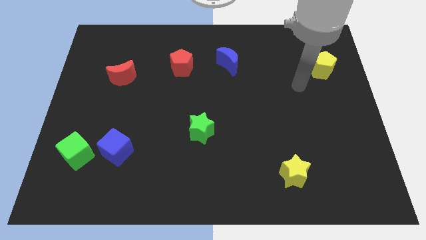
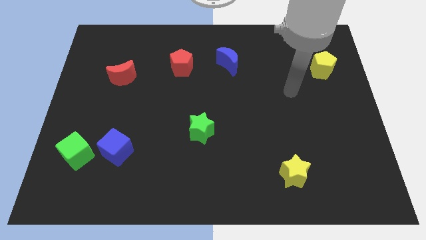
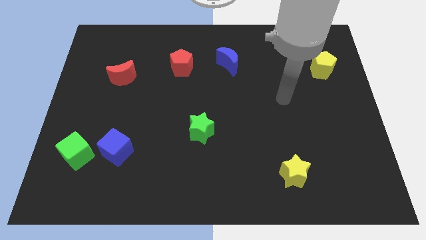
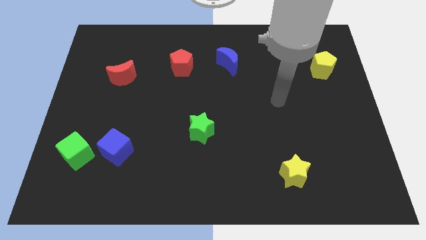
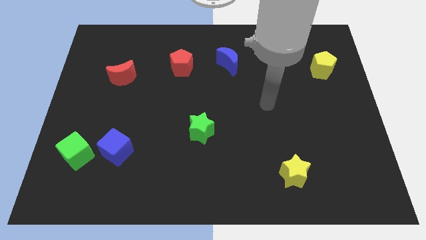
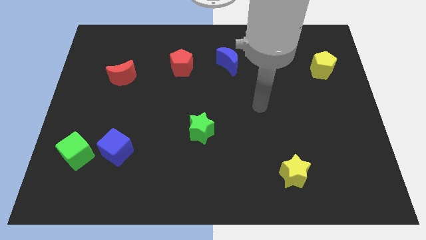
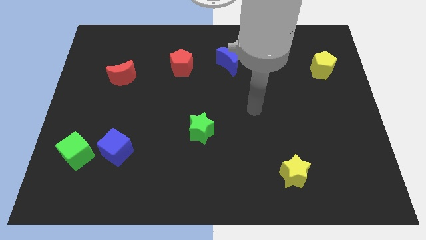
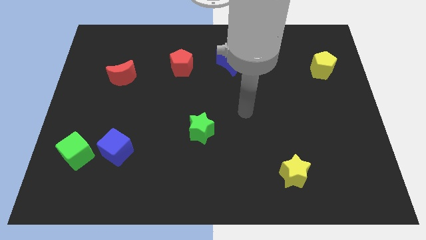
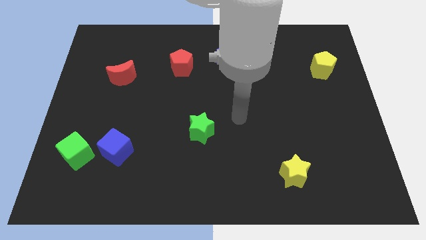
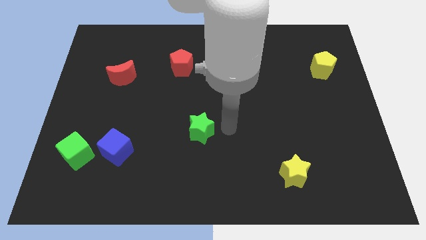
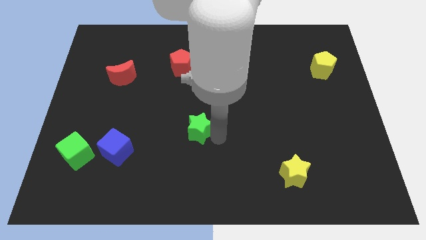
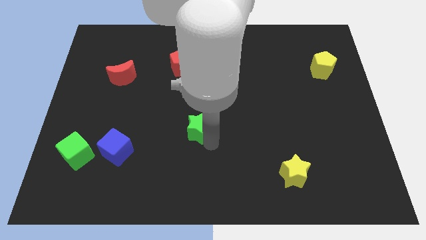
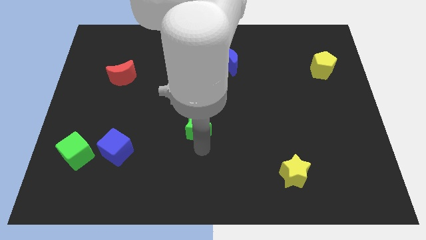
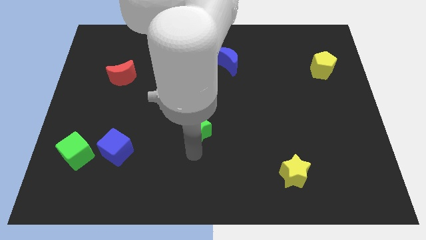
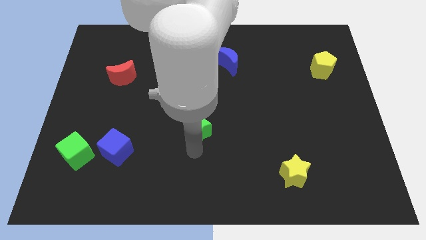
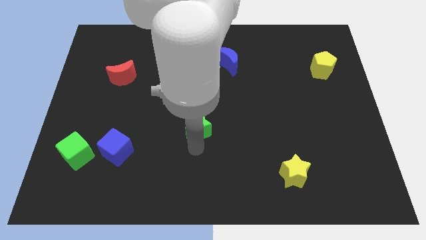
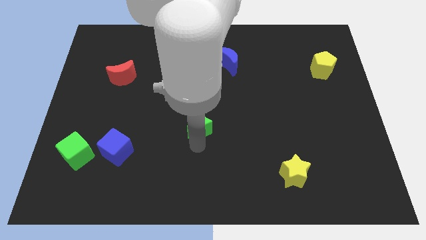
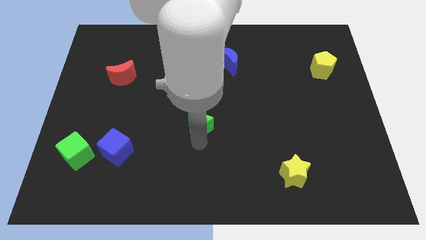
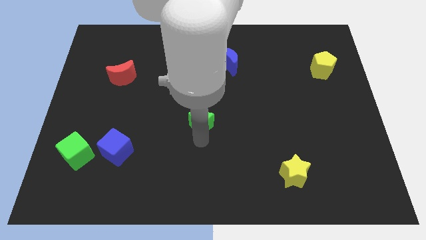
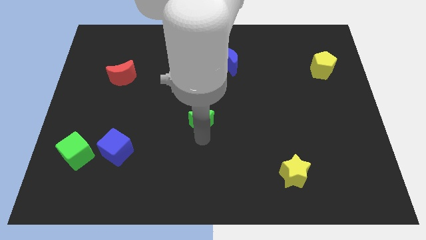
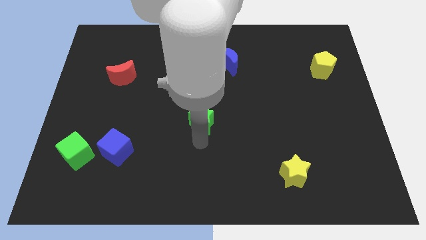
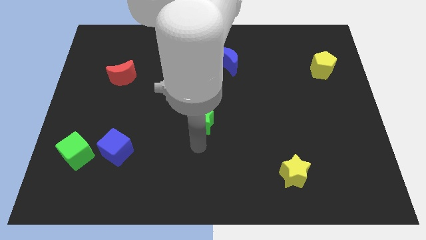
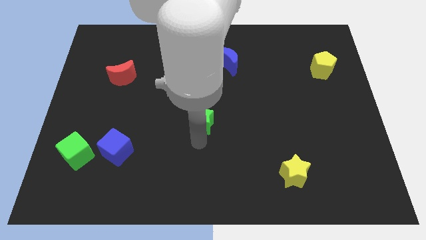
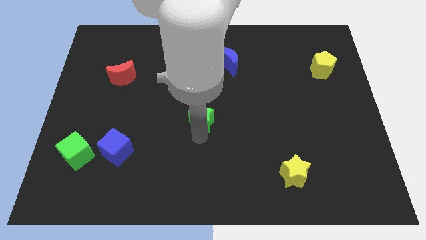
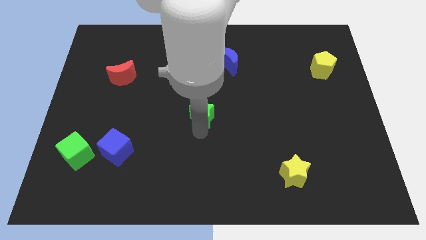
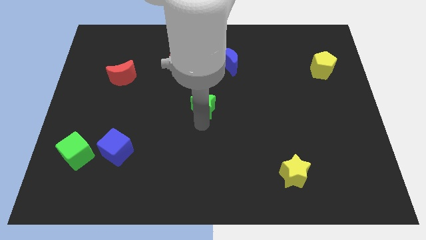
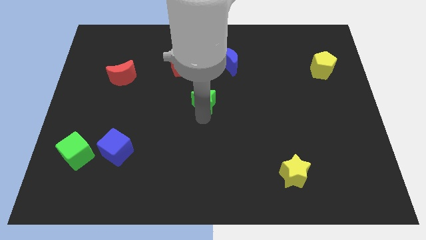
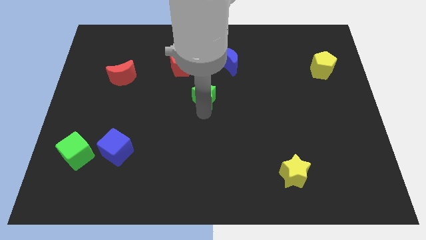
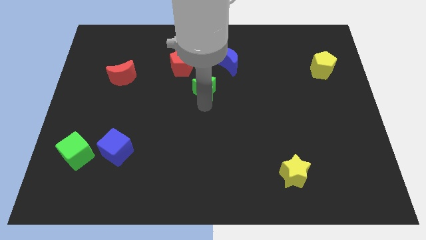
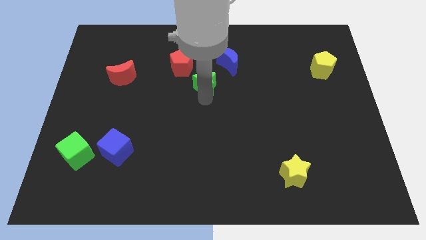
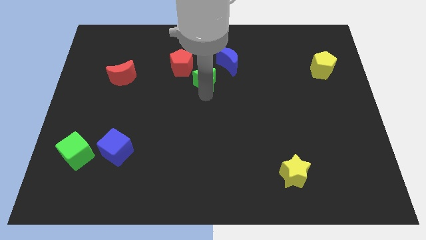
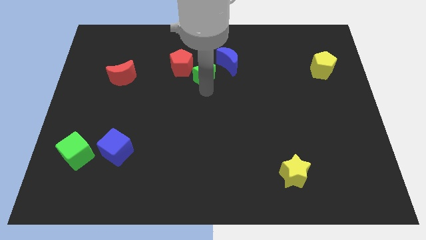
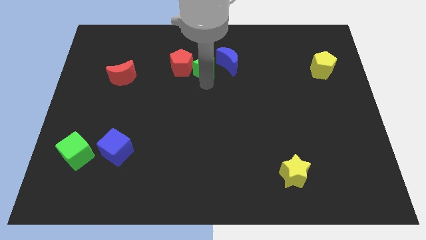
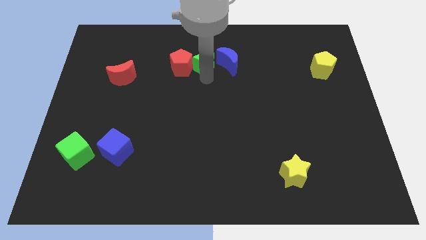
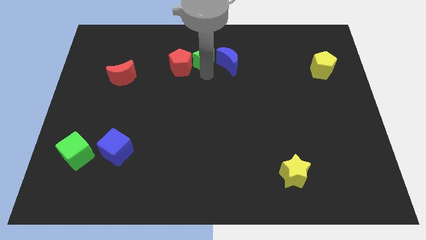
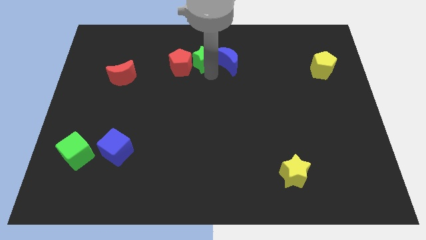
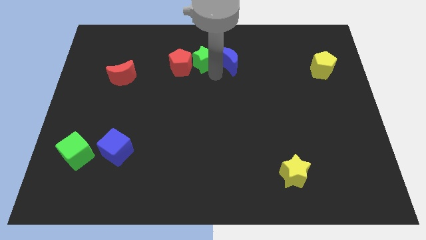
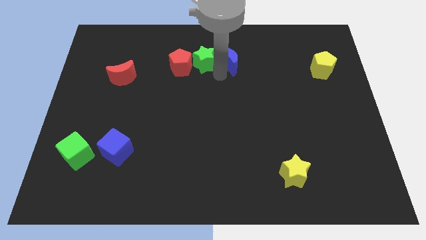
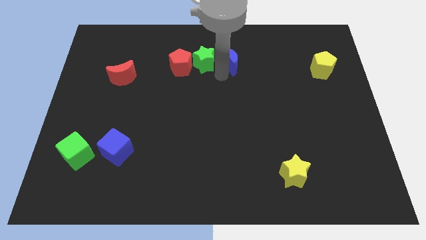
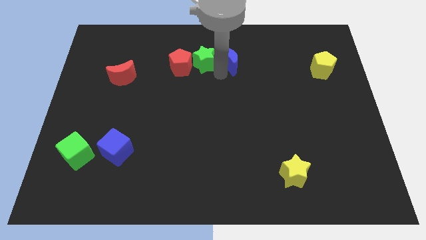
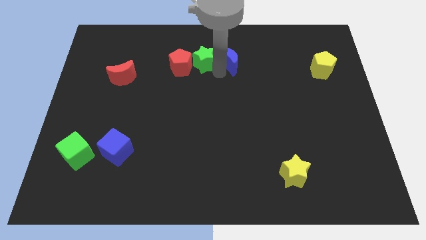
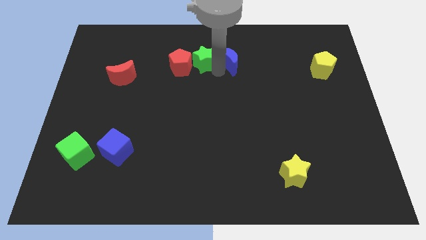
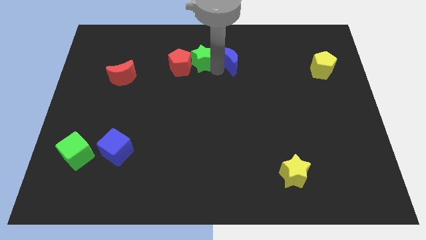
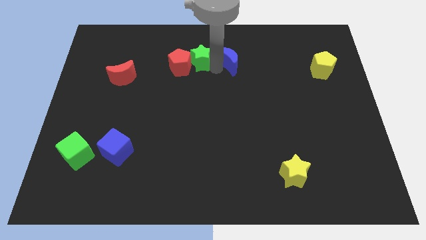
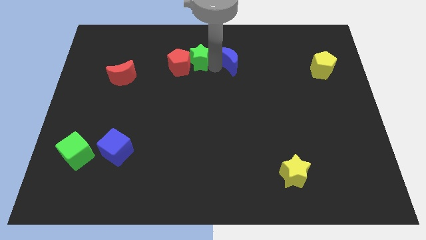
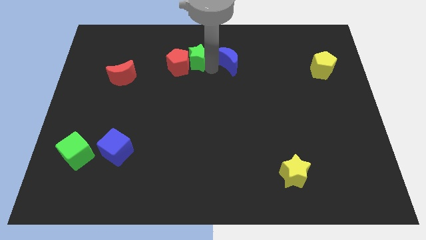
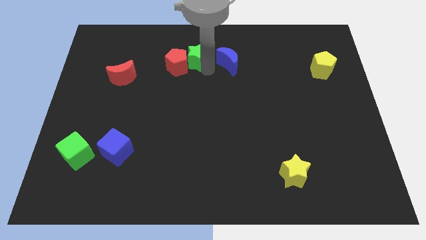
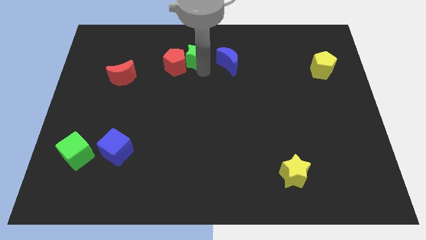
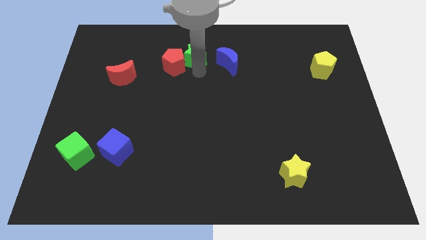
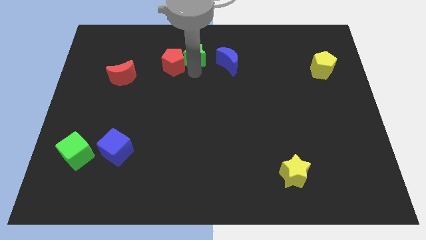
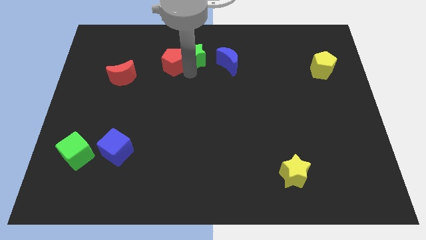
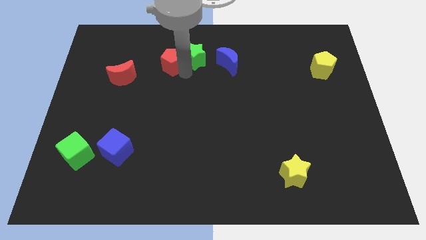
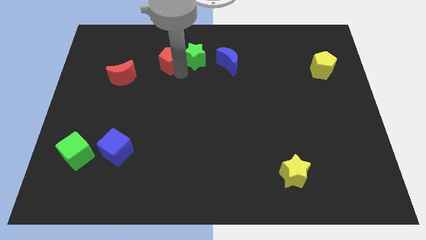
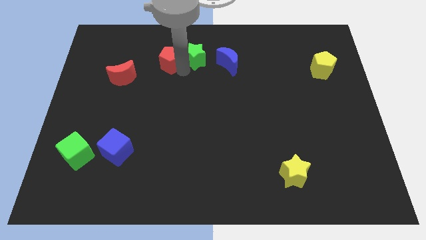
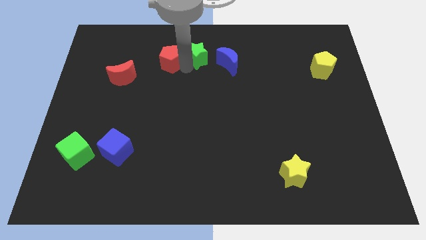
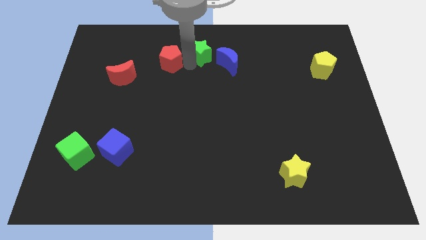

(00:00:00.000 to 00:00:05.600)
put the green star to the top

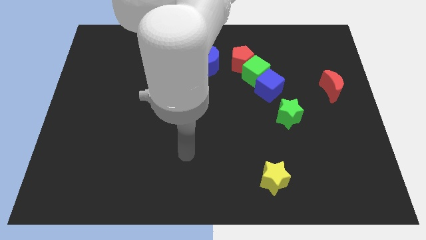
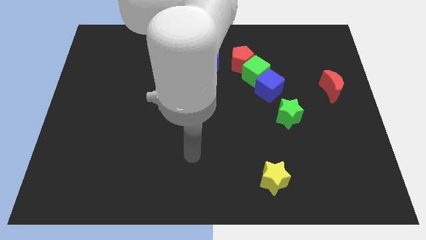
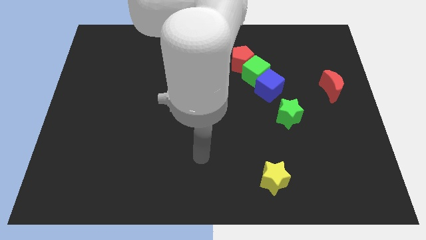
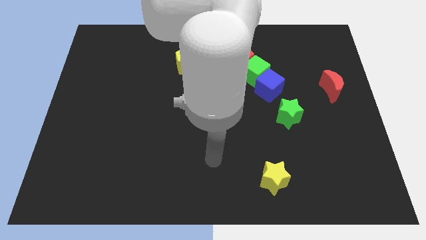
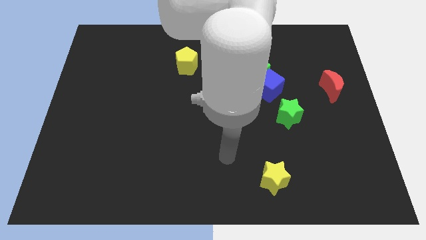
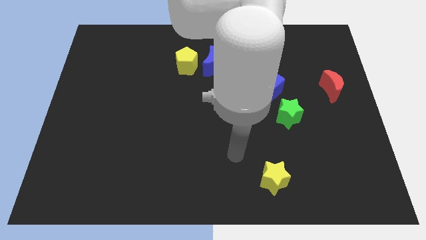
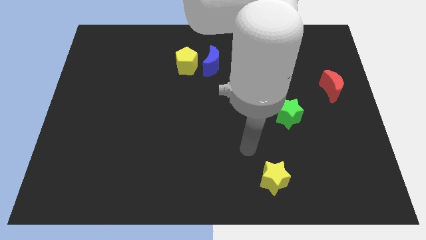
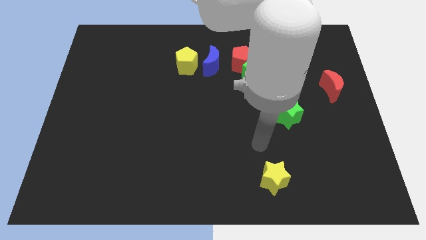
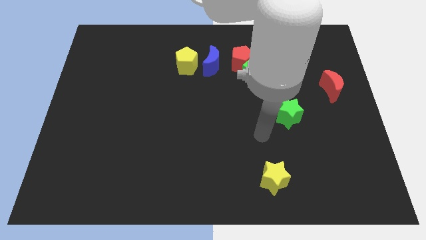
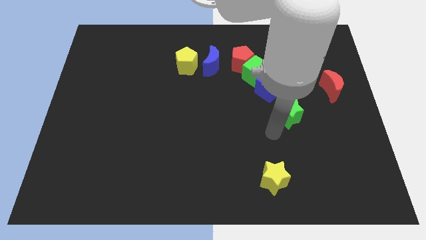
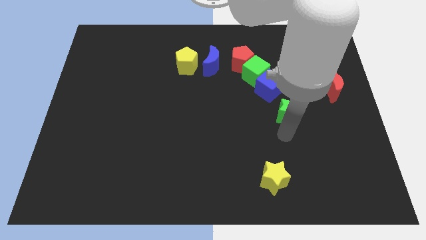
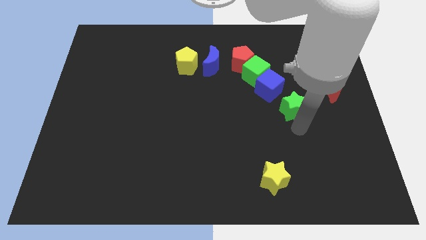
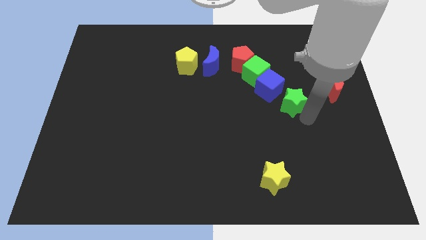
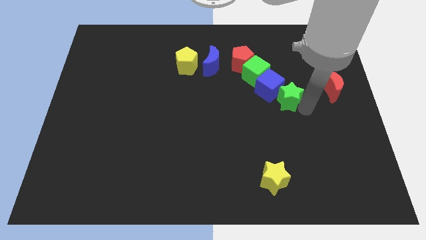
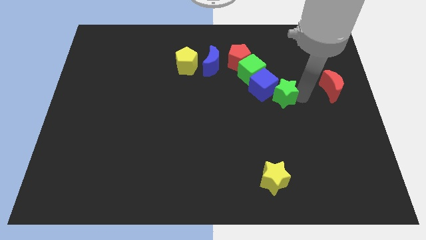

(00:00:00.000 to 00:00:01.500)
move the blue cube to the center of the board
